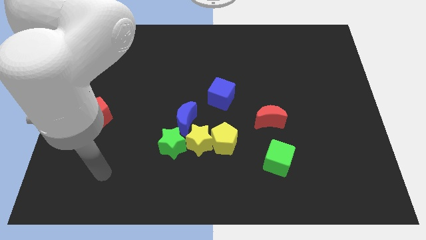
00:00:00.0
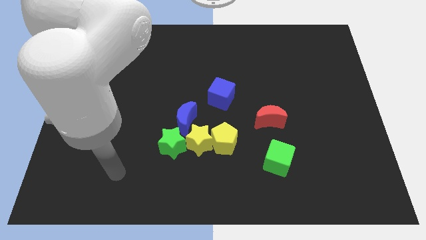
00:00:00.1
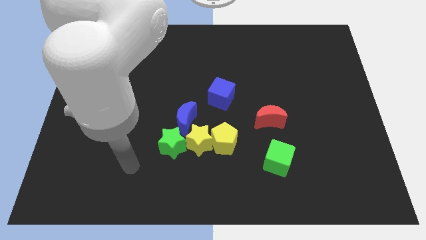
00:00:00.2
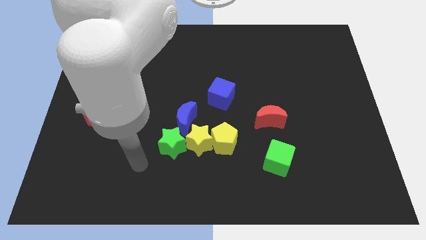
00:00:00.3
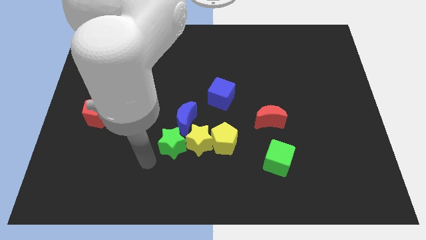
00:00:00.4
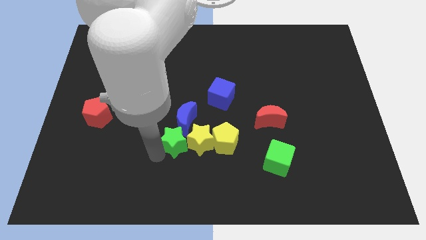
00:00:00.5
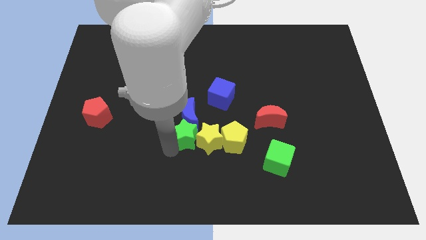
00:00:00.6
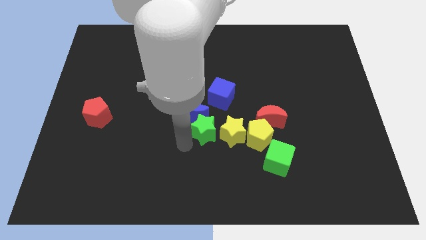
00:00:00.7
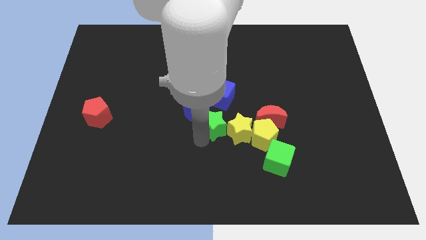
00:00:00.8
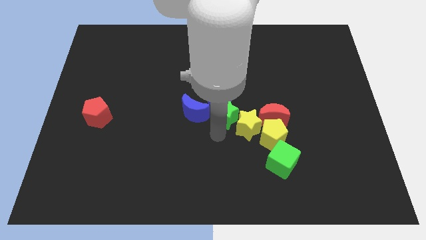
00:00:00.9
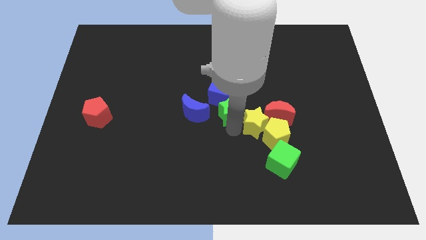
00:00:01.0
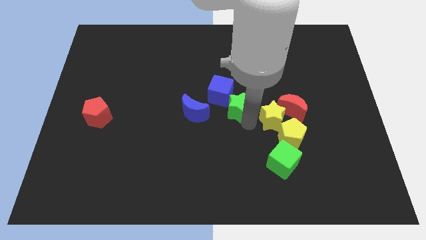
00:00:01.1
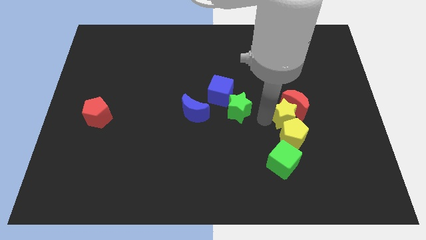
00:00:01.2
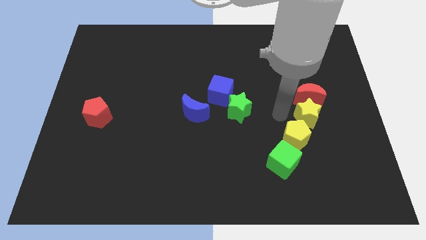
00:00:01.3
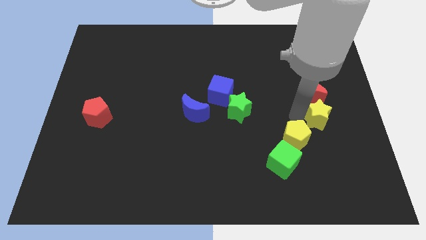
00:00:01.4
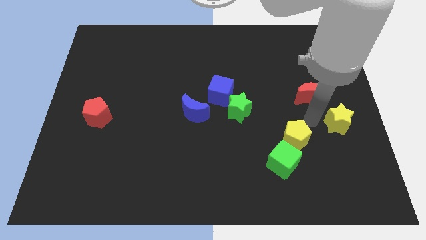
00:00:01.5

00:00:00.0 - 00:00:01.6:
pull the yellow pentagon apart from the yellow star

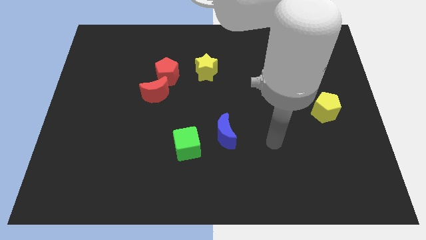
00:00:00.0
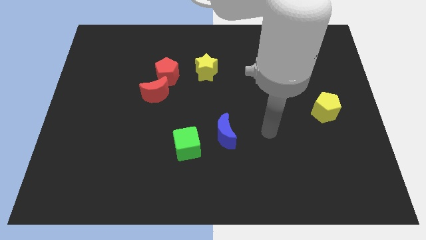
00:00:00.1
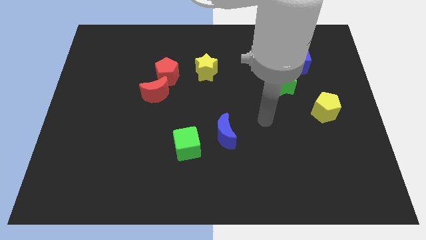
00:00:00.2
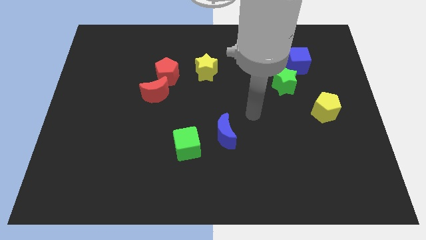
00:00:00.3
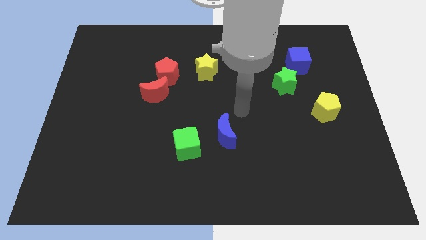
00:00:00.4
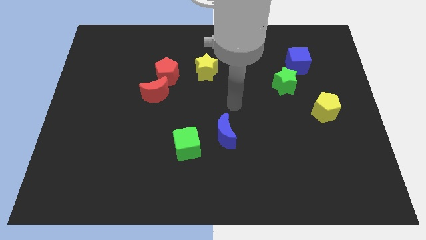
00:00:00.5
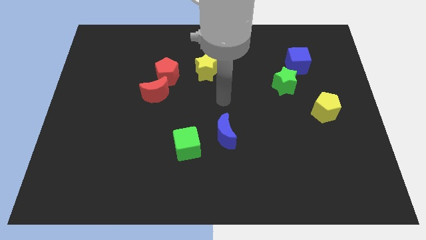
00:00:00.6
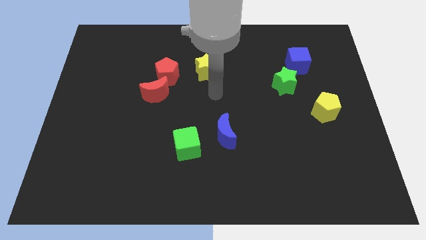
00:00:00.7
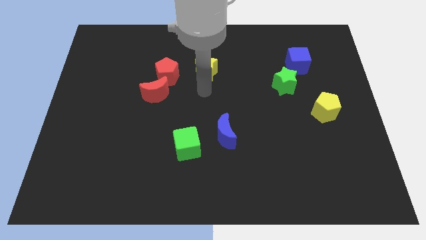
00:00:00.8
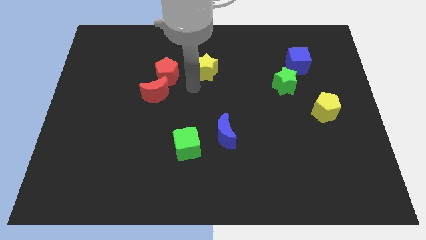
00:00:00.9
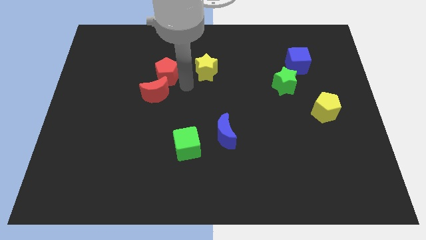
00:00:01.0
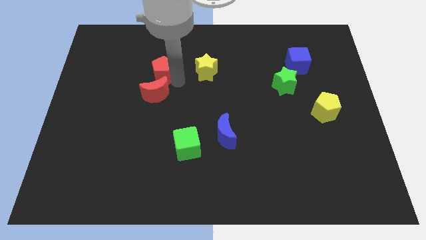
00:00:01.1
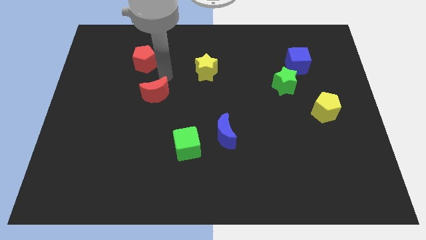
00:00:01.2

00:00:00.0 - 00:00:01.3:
move the red moon away from the red pentagon

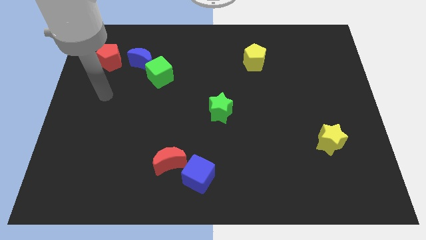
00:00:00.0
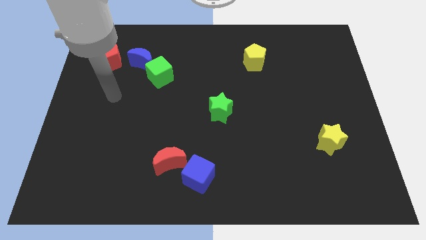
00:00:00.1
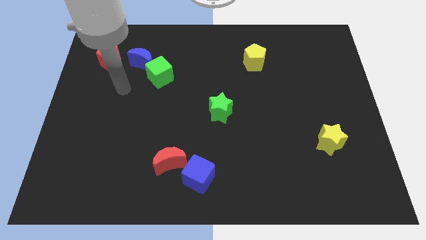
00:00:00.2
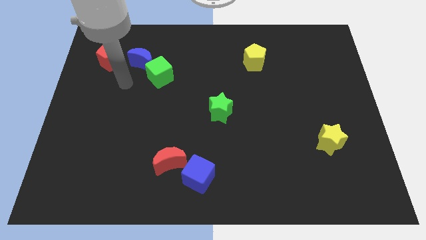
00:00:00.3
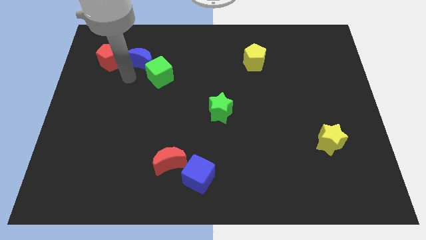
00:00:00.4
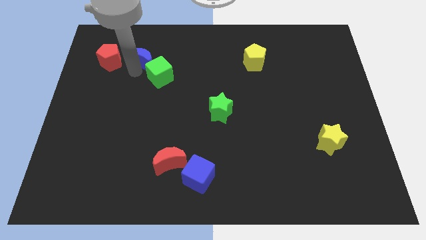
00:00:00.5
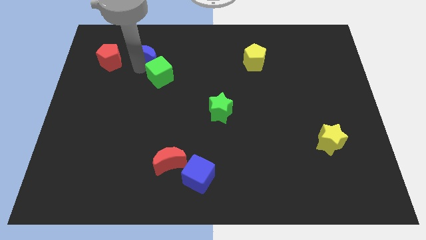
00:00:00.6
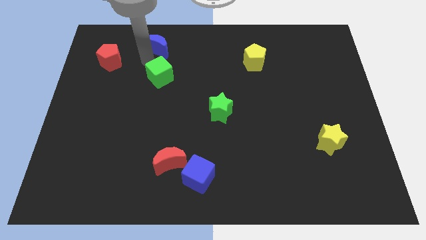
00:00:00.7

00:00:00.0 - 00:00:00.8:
pull the green cube apart from the blue moon

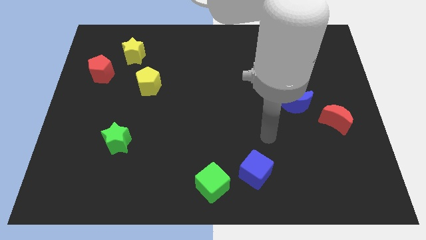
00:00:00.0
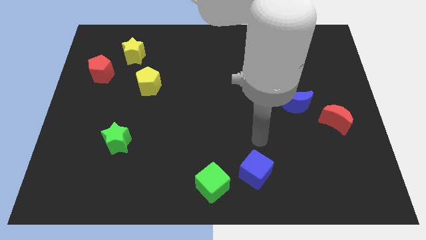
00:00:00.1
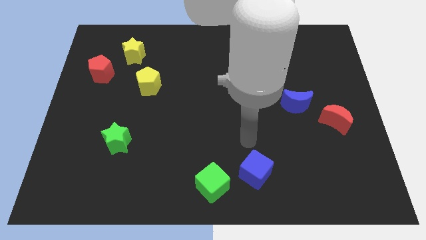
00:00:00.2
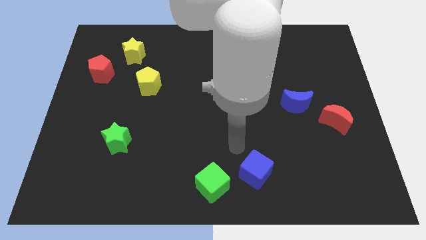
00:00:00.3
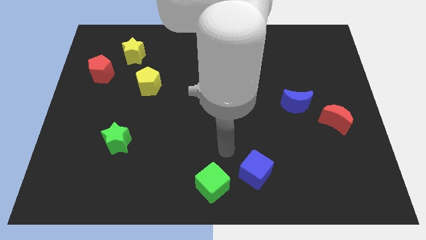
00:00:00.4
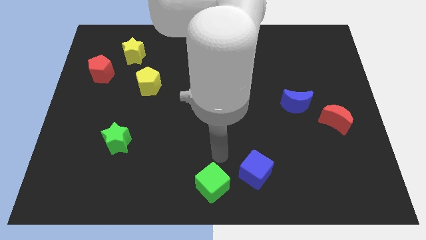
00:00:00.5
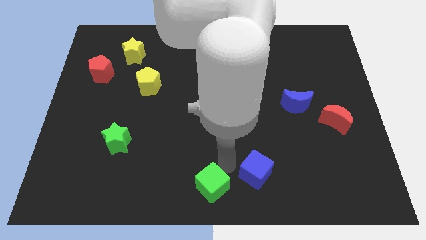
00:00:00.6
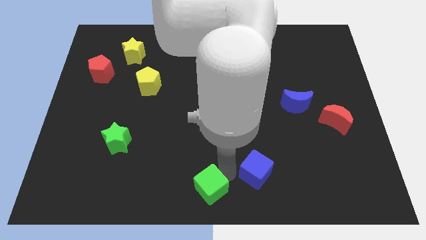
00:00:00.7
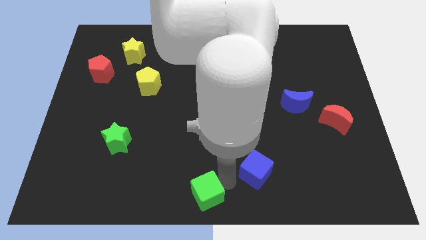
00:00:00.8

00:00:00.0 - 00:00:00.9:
separate the blue cube from the green cube

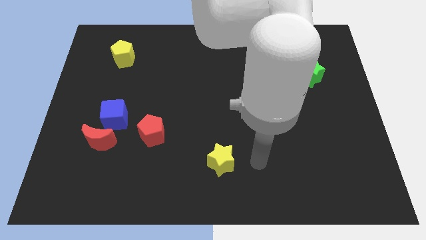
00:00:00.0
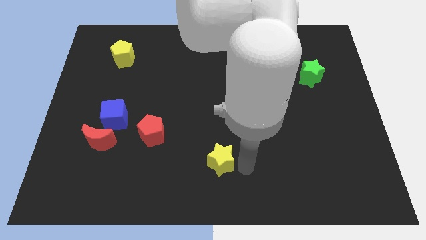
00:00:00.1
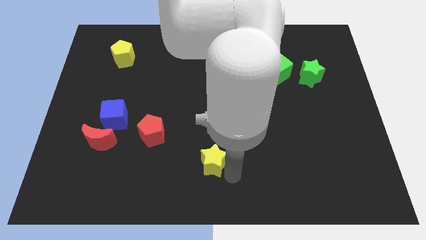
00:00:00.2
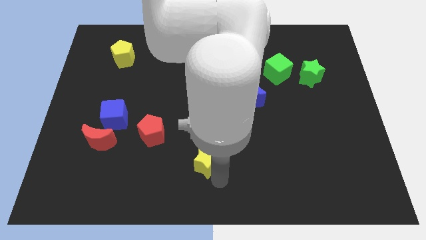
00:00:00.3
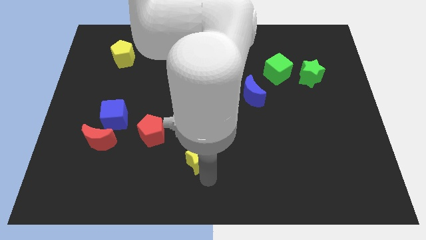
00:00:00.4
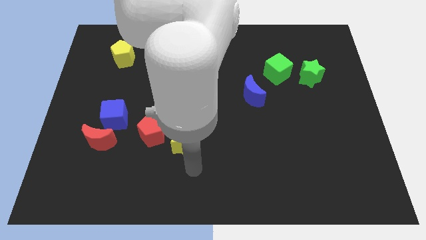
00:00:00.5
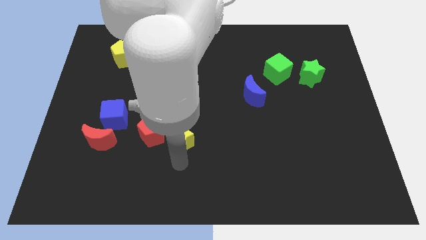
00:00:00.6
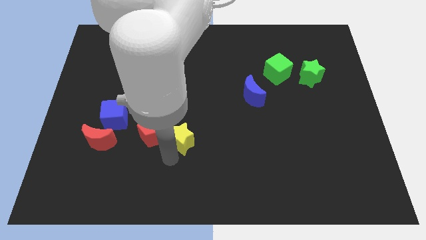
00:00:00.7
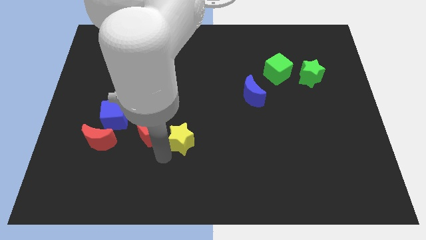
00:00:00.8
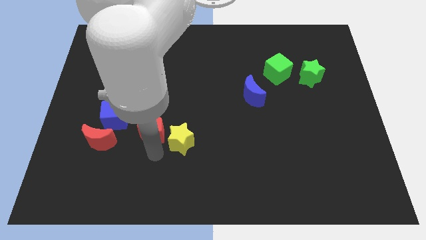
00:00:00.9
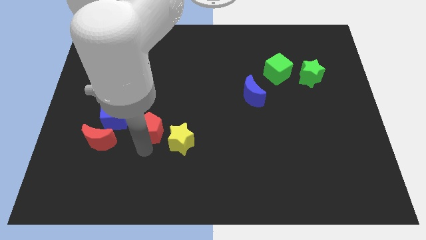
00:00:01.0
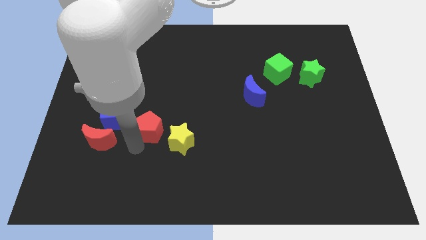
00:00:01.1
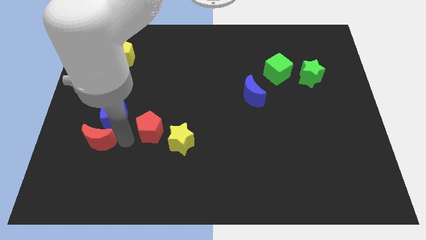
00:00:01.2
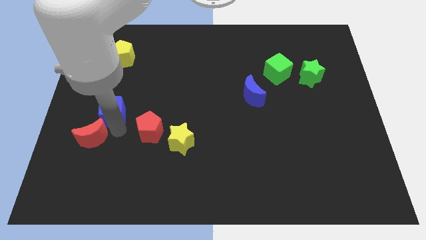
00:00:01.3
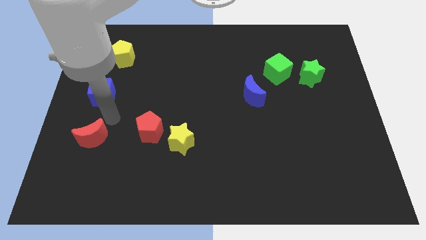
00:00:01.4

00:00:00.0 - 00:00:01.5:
separate the red moon from the blue cube

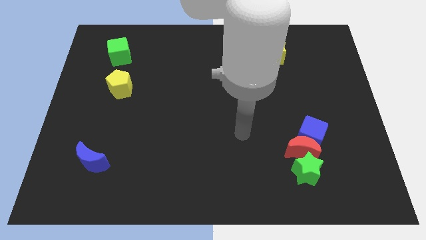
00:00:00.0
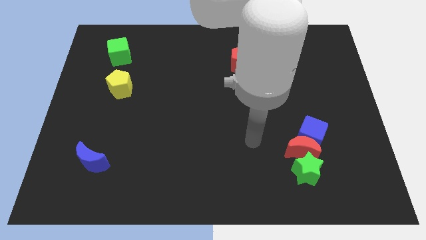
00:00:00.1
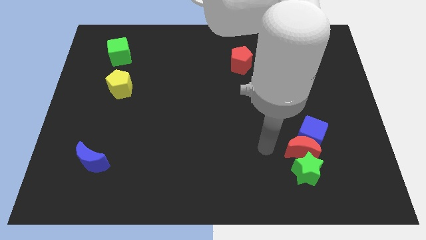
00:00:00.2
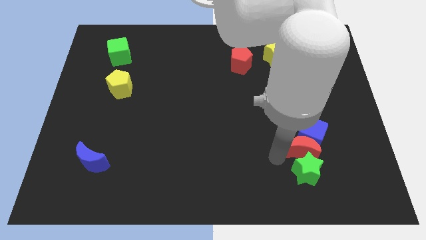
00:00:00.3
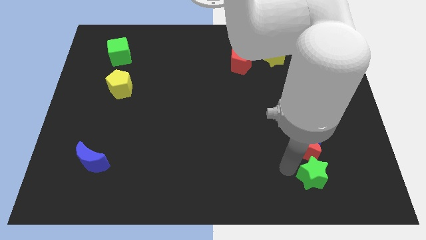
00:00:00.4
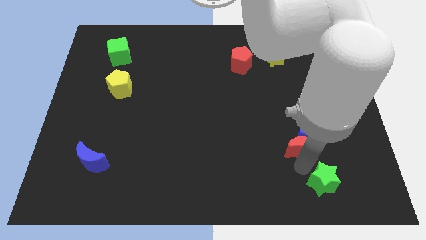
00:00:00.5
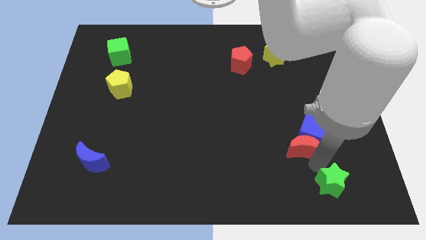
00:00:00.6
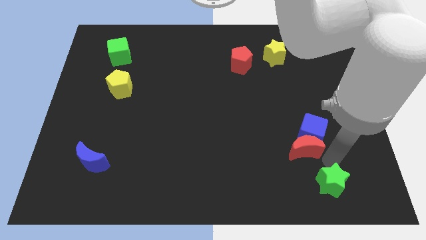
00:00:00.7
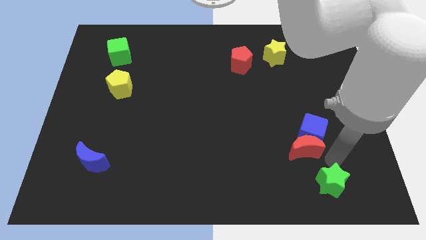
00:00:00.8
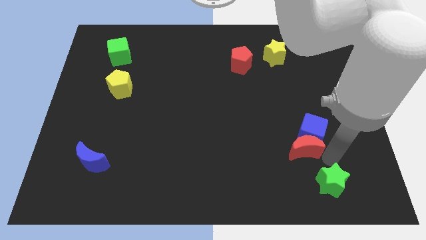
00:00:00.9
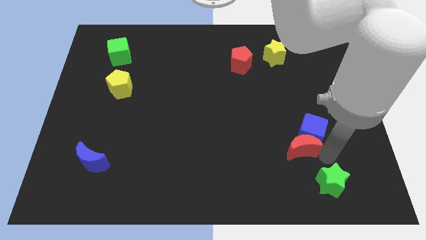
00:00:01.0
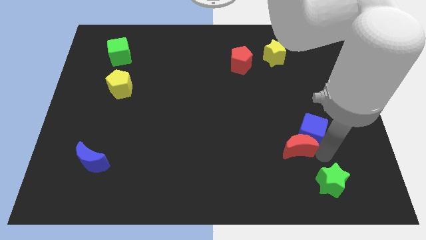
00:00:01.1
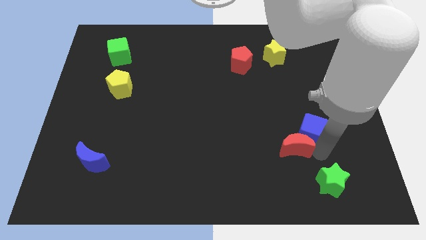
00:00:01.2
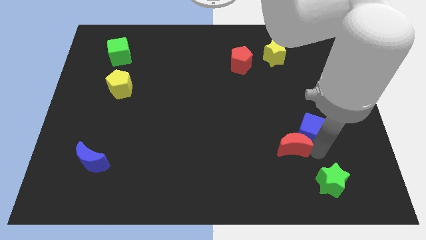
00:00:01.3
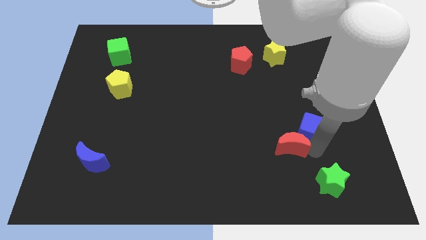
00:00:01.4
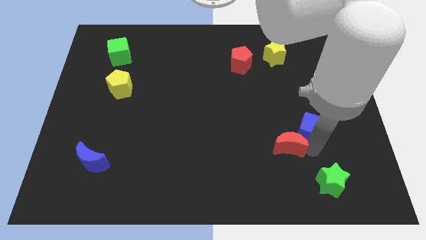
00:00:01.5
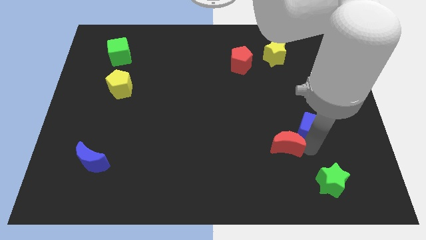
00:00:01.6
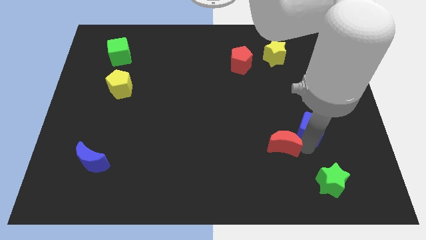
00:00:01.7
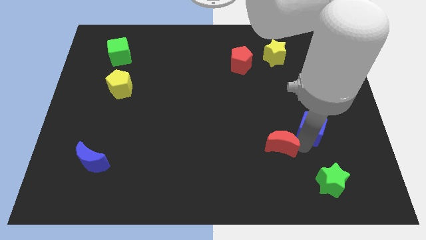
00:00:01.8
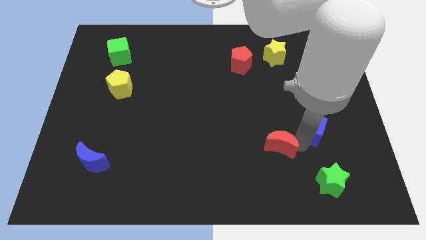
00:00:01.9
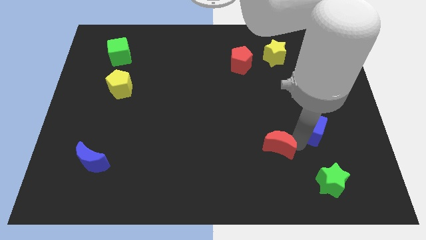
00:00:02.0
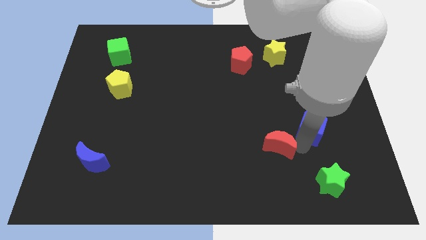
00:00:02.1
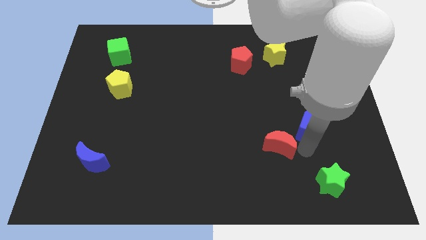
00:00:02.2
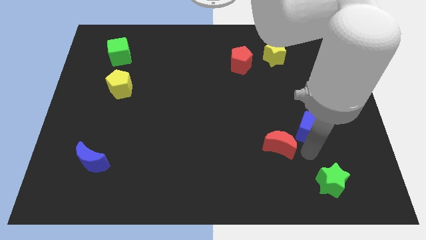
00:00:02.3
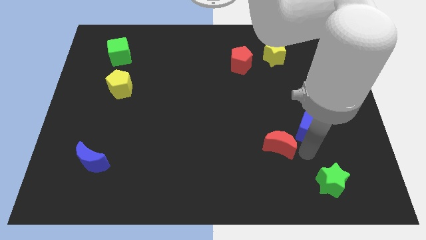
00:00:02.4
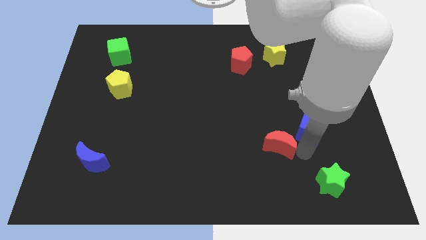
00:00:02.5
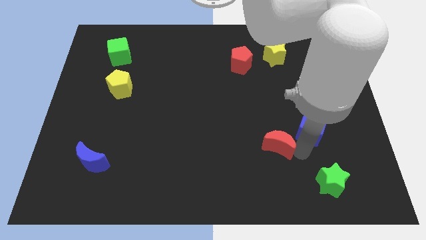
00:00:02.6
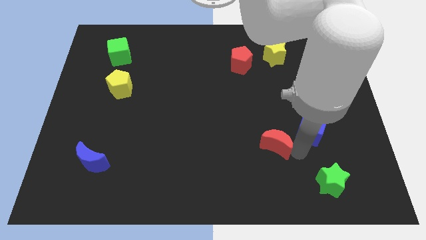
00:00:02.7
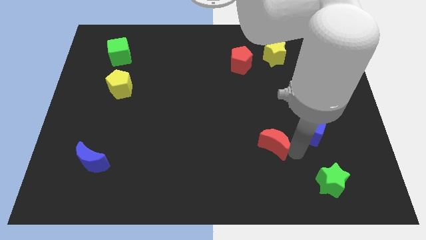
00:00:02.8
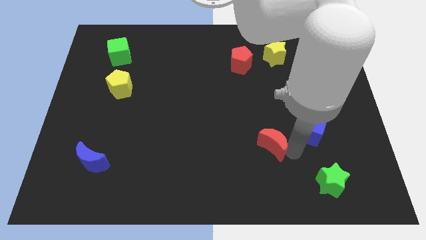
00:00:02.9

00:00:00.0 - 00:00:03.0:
move the red moon away from the blue cube and green star

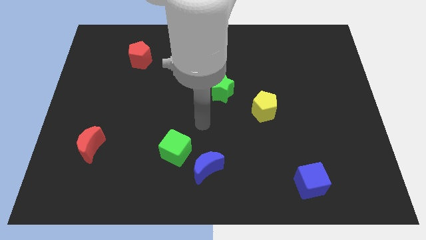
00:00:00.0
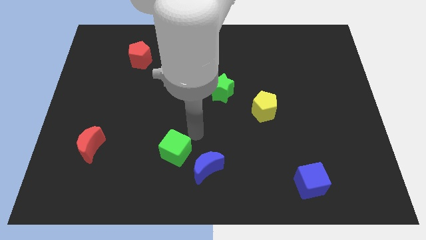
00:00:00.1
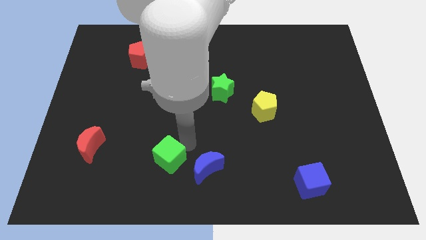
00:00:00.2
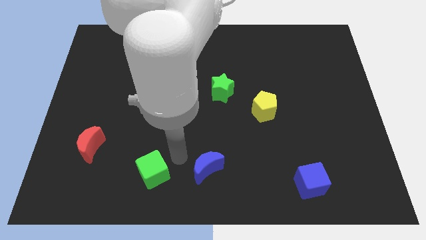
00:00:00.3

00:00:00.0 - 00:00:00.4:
move the blue moon away from the green cube
